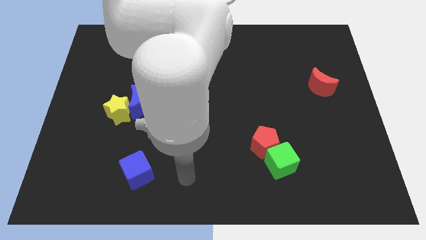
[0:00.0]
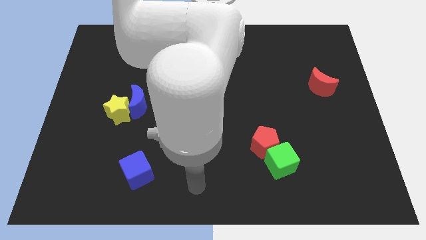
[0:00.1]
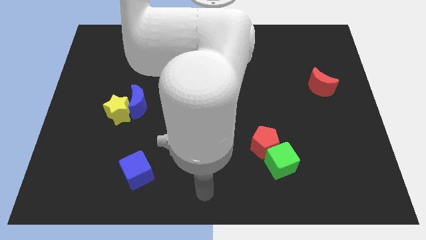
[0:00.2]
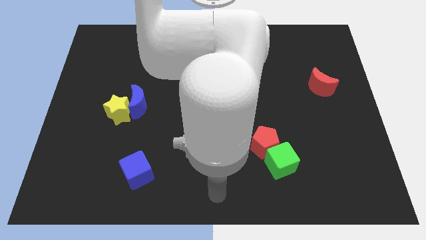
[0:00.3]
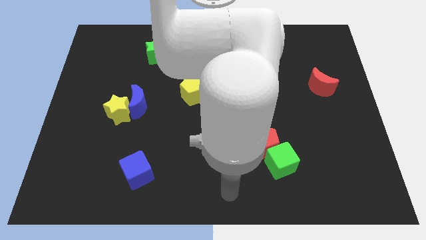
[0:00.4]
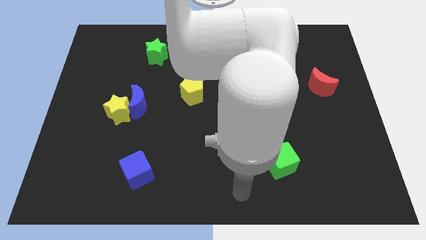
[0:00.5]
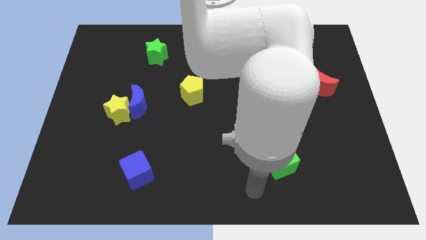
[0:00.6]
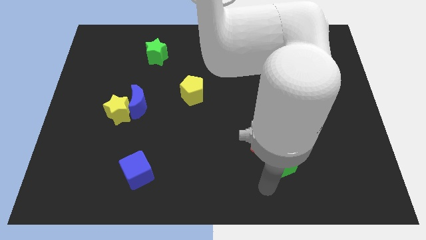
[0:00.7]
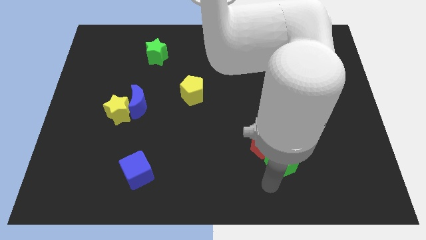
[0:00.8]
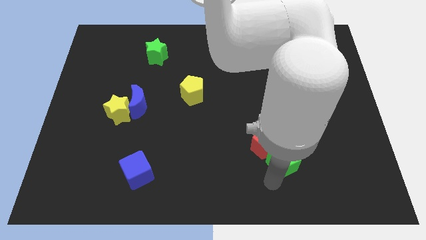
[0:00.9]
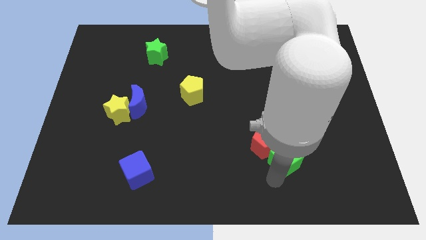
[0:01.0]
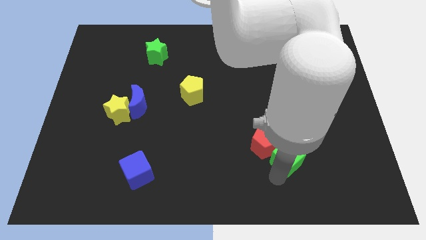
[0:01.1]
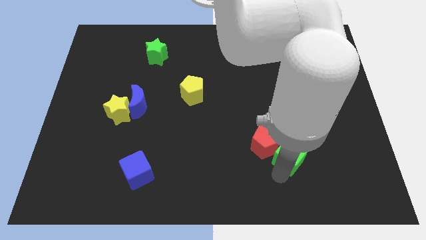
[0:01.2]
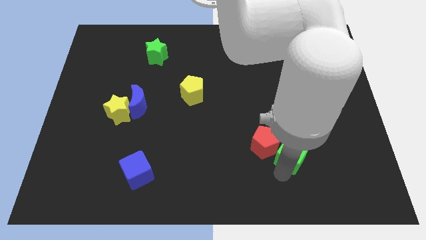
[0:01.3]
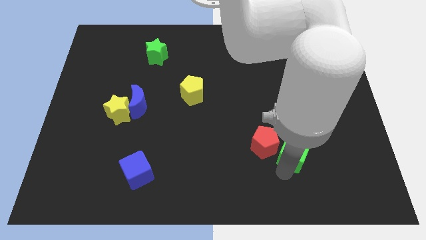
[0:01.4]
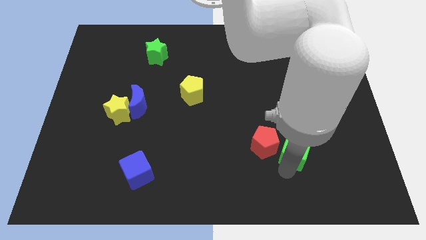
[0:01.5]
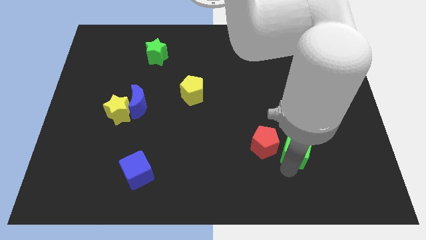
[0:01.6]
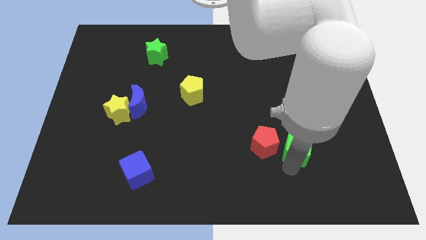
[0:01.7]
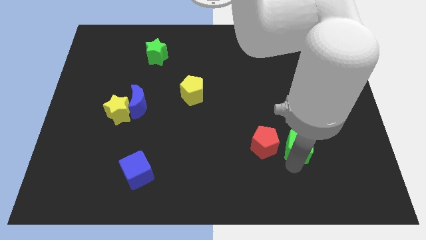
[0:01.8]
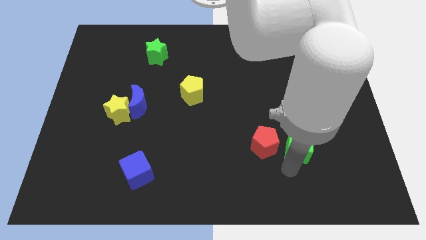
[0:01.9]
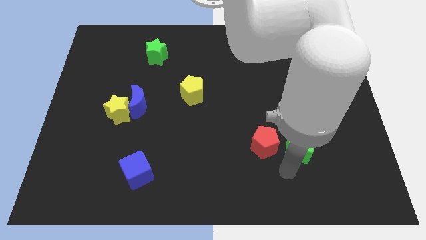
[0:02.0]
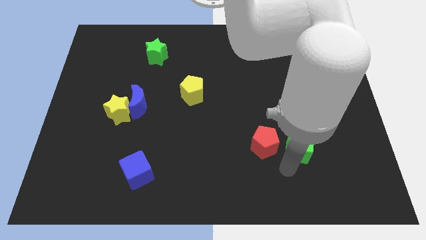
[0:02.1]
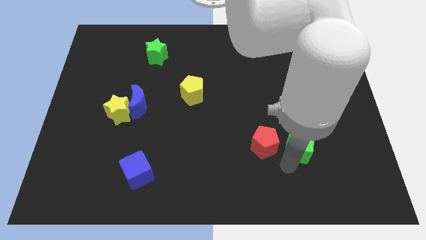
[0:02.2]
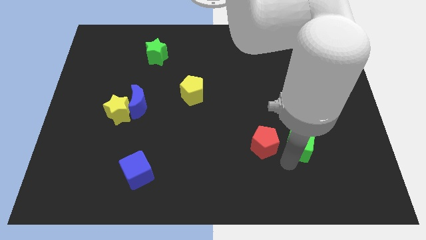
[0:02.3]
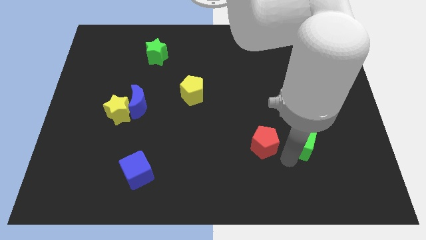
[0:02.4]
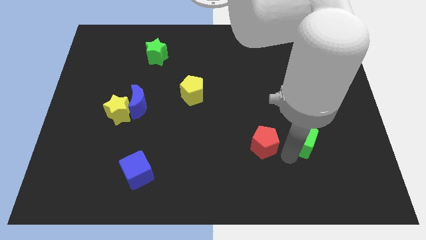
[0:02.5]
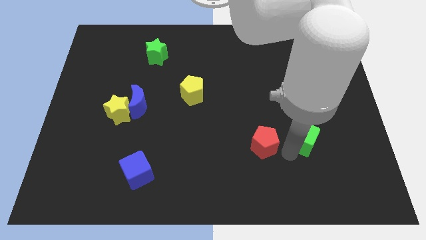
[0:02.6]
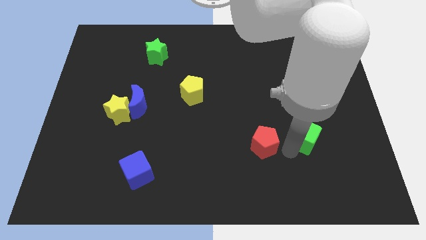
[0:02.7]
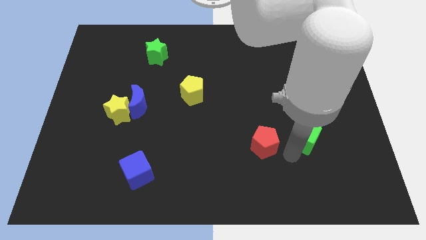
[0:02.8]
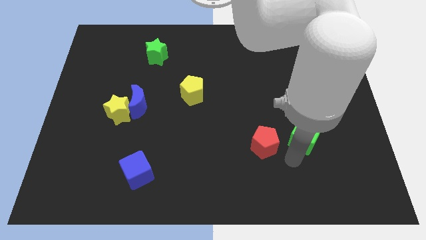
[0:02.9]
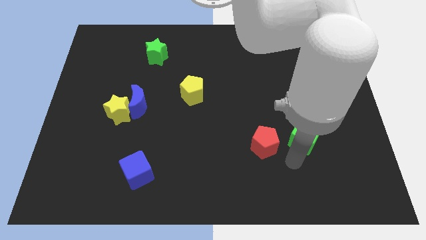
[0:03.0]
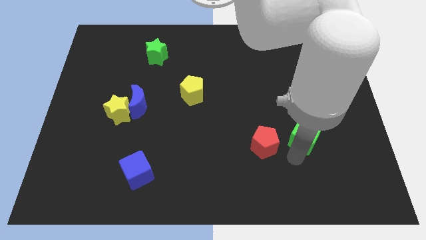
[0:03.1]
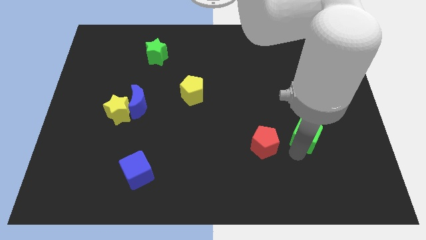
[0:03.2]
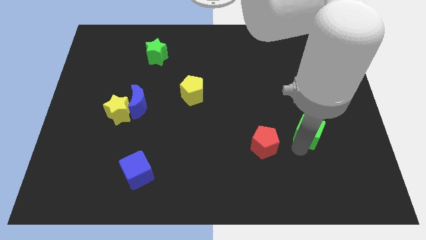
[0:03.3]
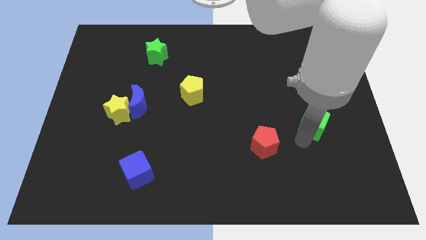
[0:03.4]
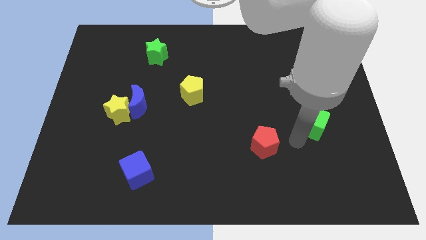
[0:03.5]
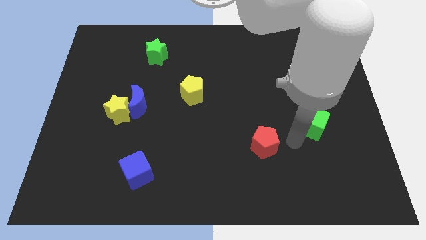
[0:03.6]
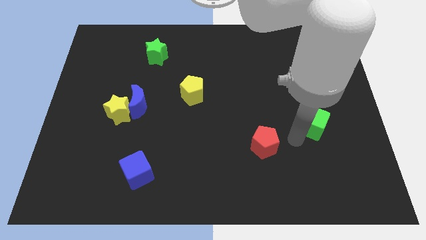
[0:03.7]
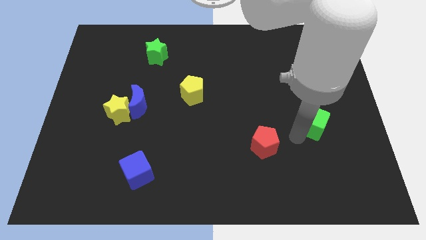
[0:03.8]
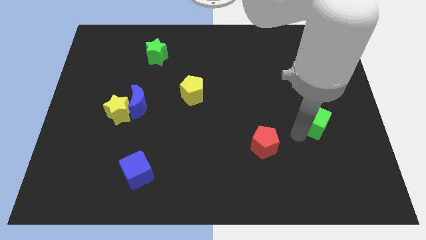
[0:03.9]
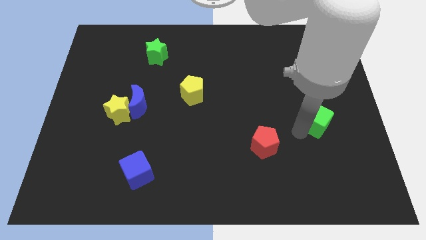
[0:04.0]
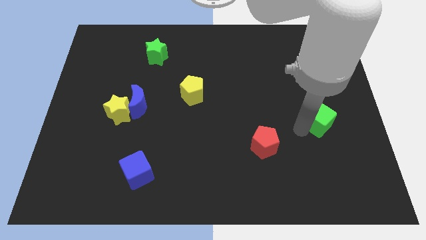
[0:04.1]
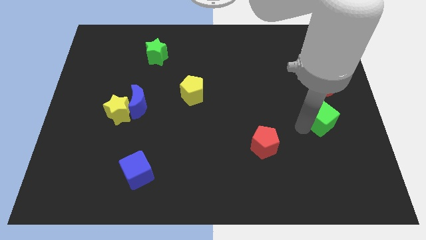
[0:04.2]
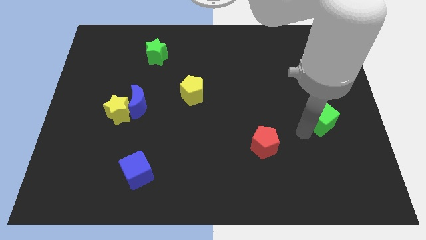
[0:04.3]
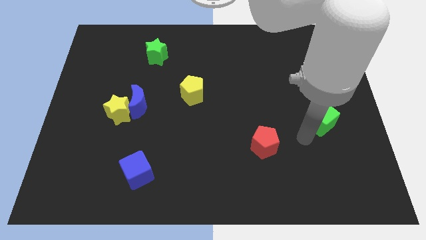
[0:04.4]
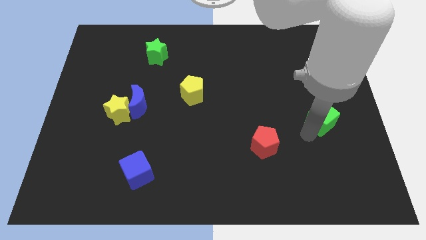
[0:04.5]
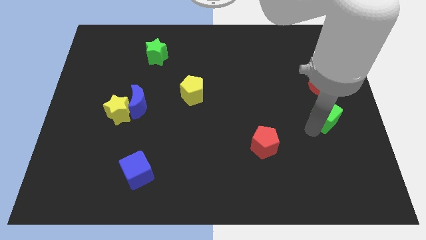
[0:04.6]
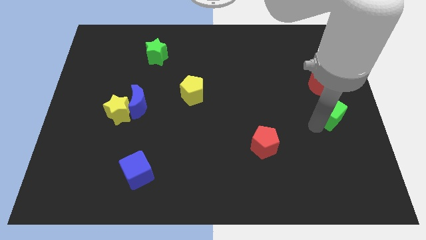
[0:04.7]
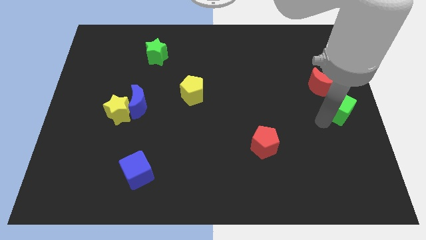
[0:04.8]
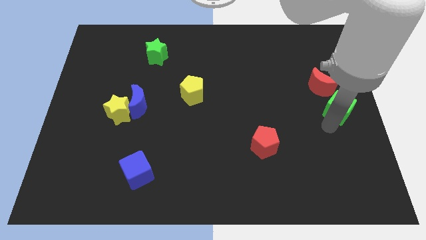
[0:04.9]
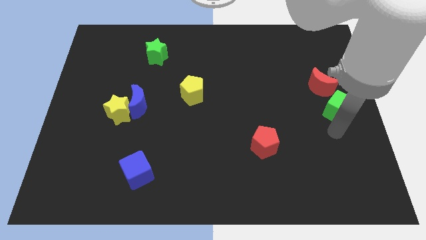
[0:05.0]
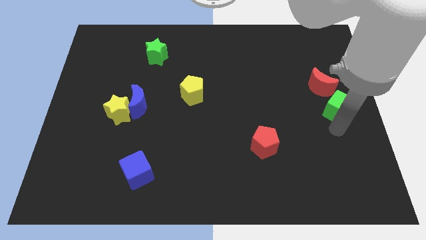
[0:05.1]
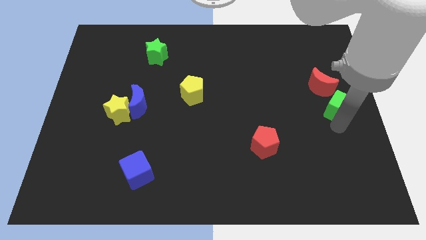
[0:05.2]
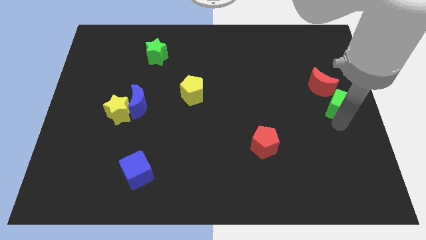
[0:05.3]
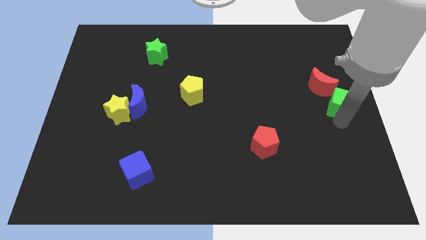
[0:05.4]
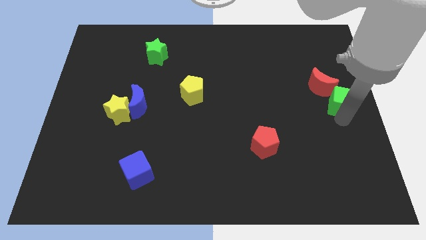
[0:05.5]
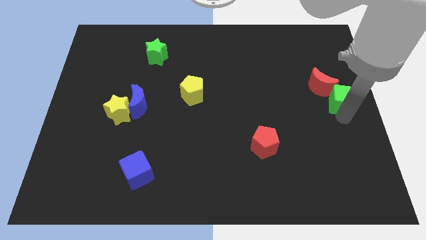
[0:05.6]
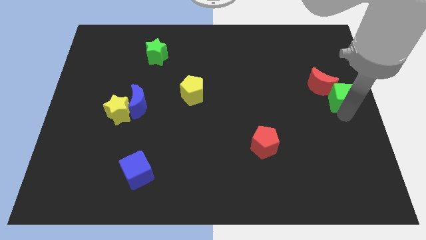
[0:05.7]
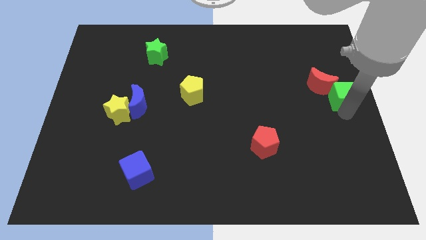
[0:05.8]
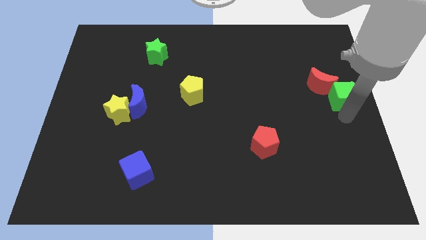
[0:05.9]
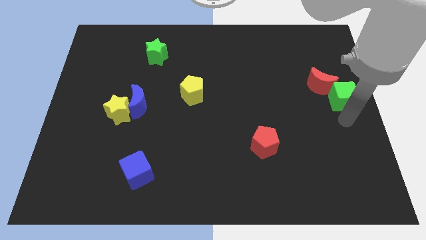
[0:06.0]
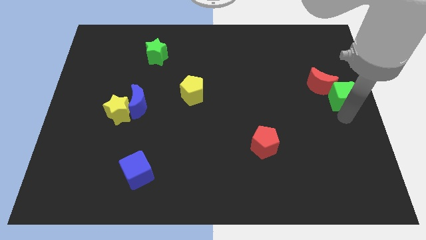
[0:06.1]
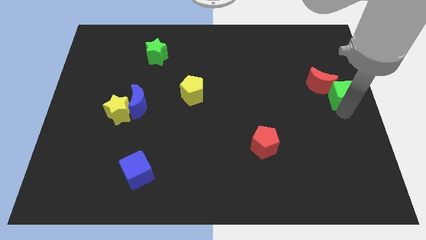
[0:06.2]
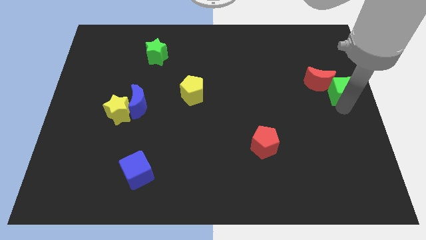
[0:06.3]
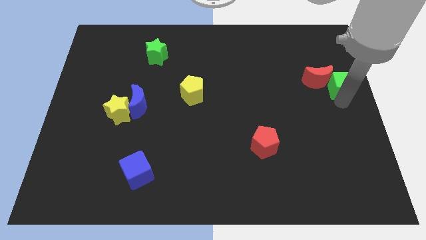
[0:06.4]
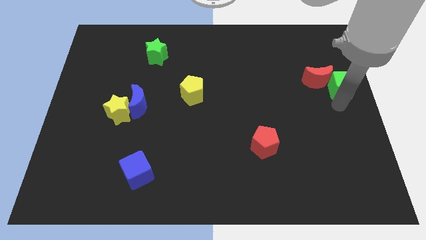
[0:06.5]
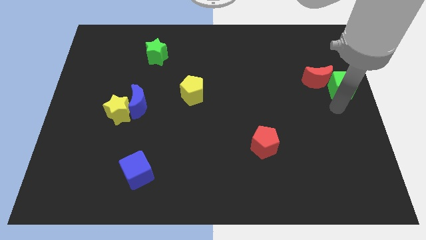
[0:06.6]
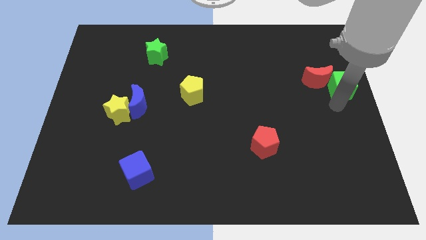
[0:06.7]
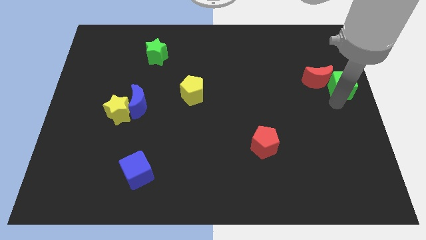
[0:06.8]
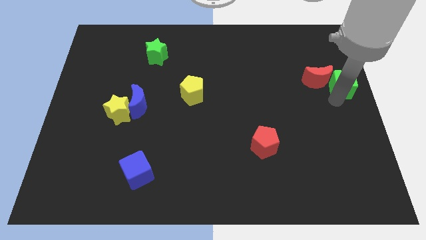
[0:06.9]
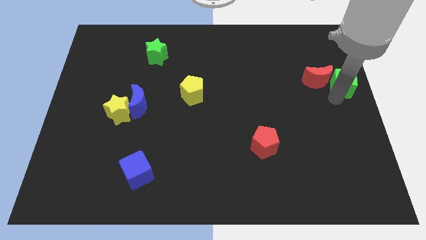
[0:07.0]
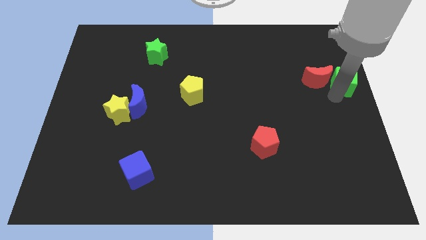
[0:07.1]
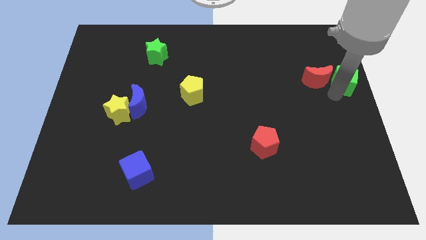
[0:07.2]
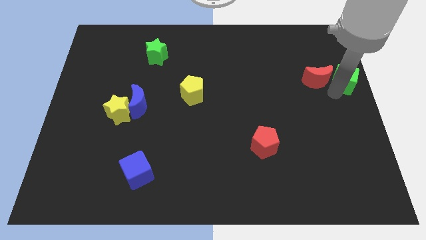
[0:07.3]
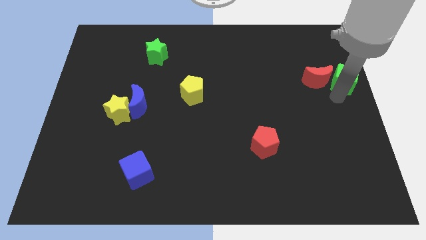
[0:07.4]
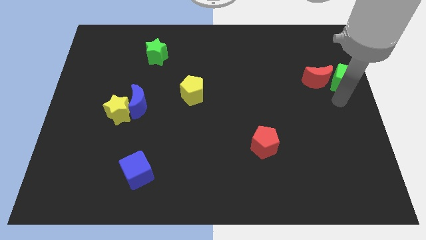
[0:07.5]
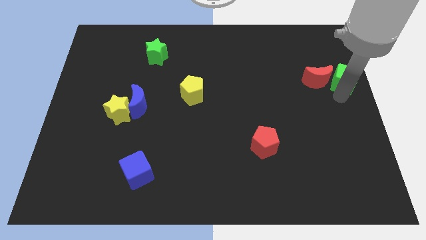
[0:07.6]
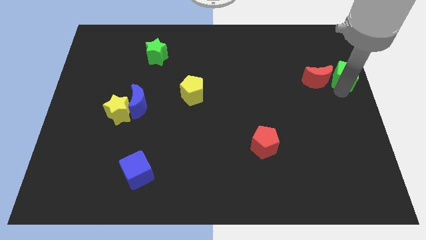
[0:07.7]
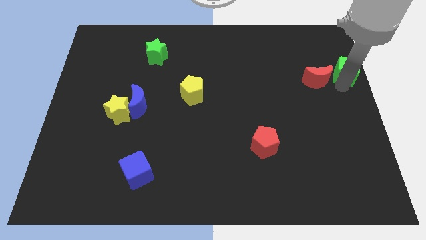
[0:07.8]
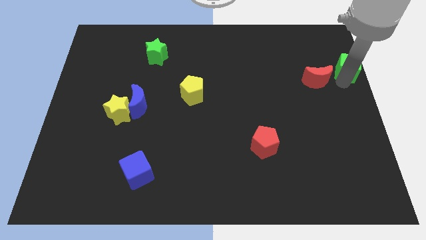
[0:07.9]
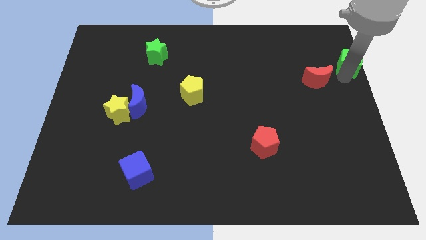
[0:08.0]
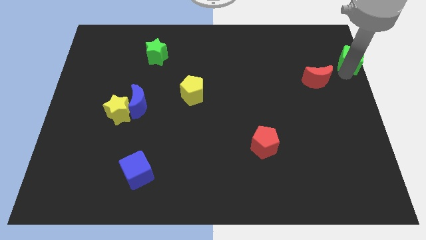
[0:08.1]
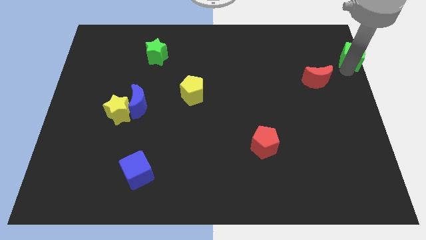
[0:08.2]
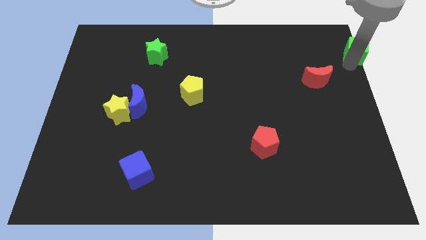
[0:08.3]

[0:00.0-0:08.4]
push the green cube to the top right of the board
